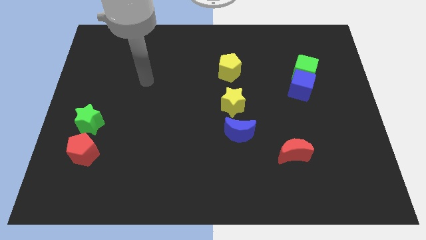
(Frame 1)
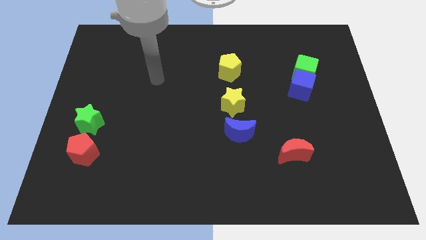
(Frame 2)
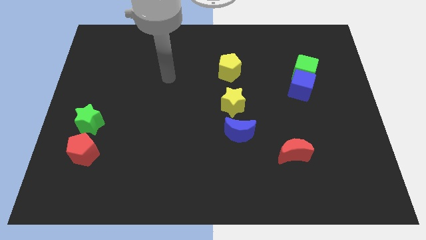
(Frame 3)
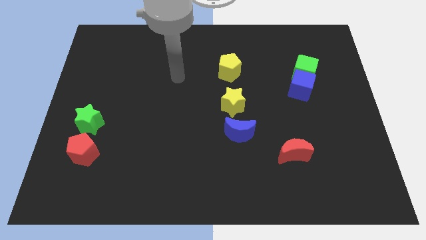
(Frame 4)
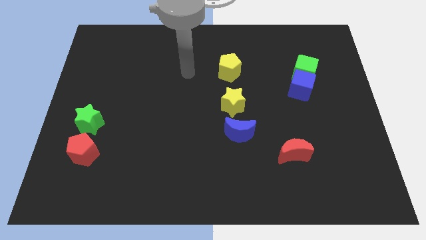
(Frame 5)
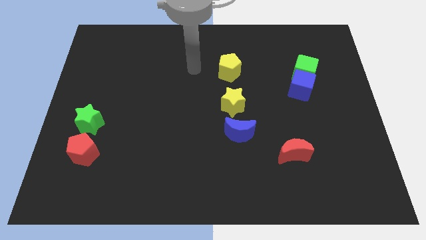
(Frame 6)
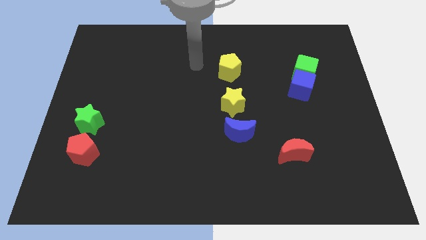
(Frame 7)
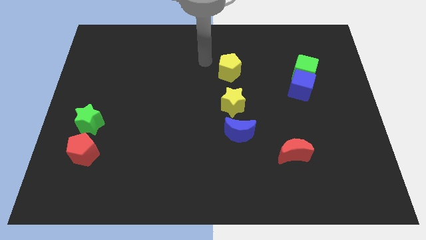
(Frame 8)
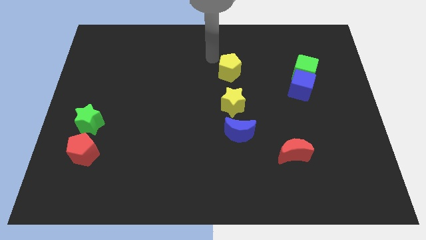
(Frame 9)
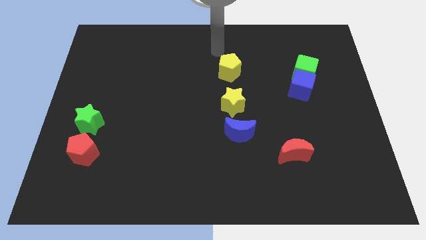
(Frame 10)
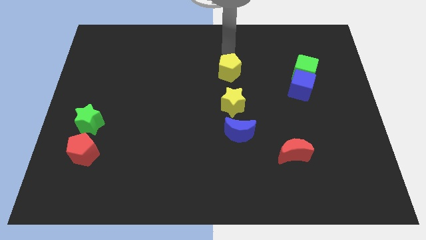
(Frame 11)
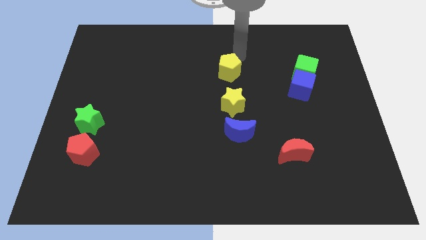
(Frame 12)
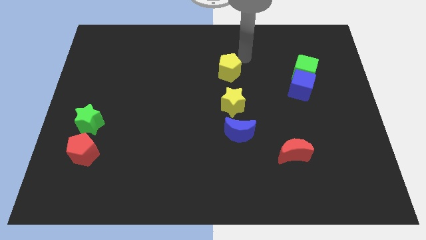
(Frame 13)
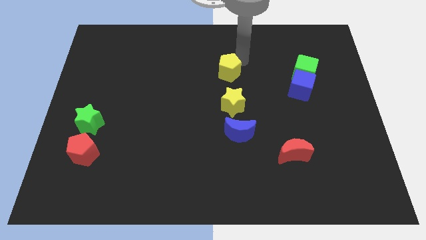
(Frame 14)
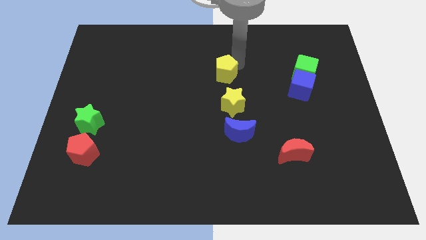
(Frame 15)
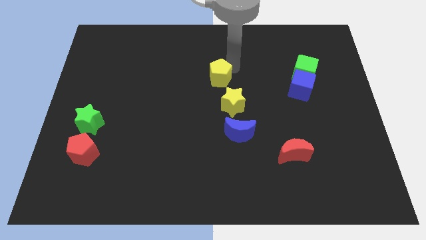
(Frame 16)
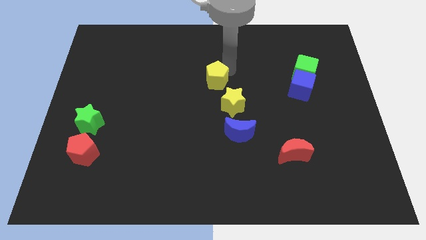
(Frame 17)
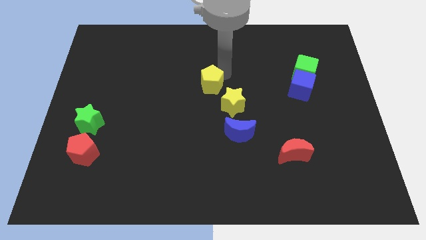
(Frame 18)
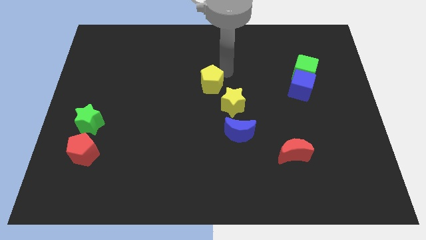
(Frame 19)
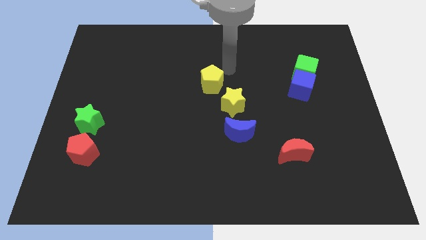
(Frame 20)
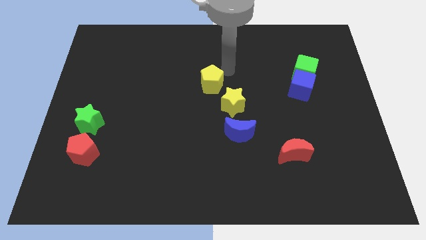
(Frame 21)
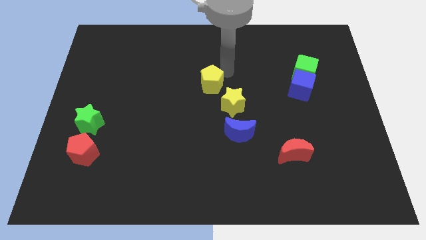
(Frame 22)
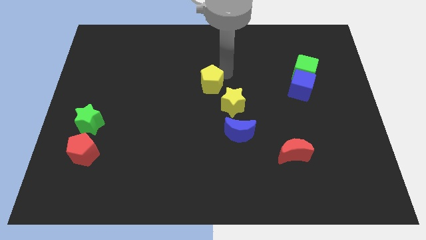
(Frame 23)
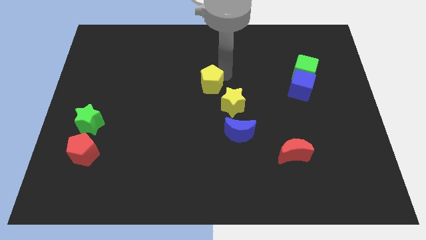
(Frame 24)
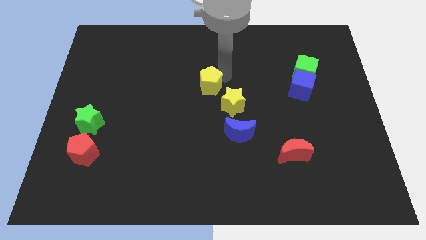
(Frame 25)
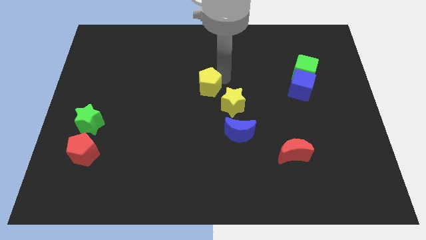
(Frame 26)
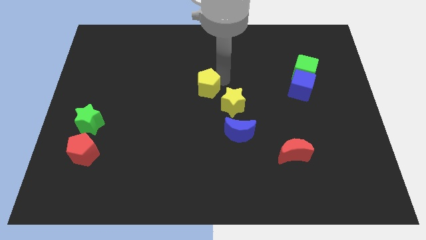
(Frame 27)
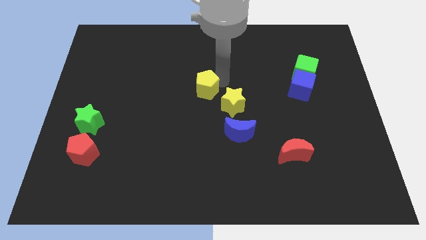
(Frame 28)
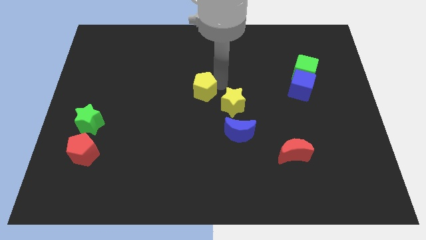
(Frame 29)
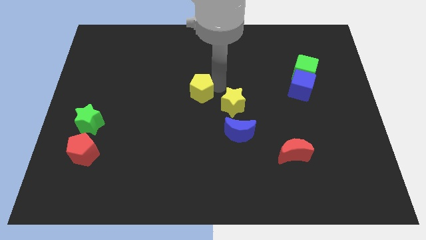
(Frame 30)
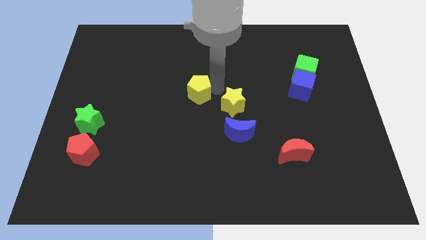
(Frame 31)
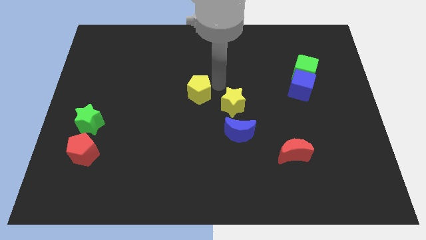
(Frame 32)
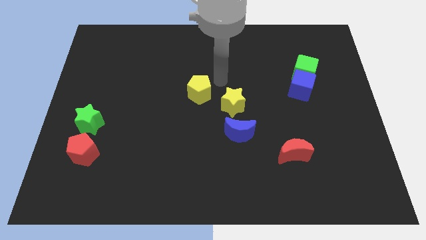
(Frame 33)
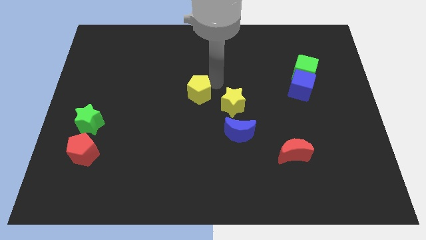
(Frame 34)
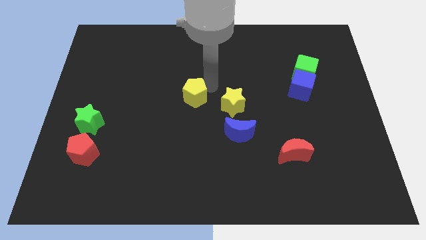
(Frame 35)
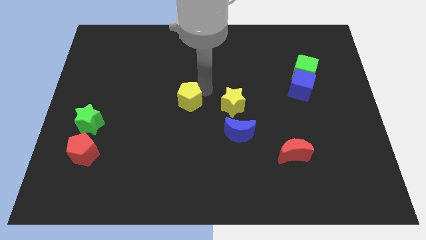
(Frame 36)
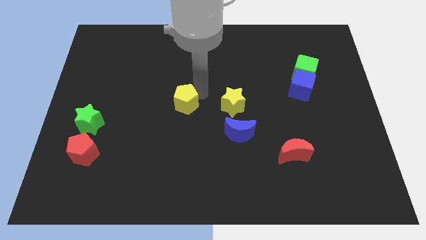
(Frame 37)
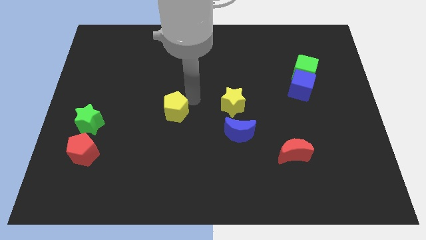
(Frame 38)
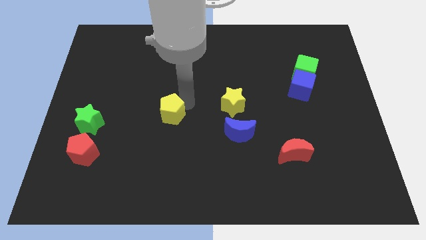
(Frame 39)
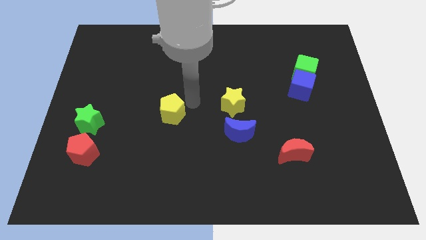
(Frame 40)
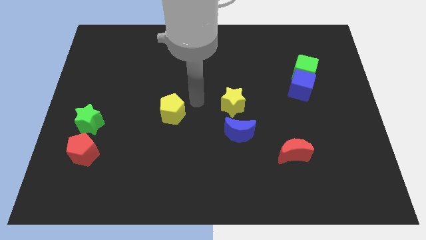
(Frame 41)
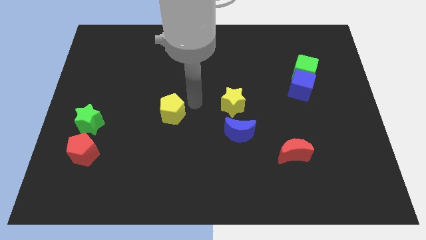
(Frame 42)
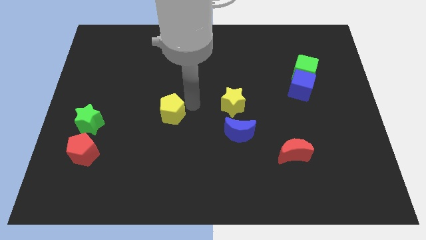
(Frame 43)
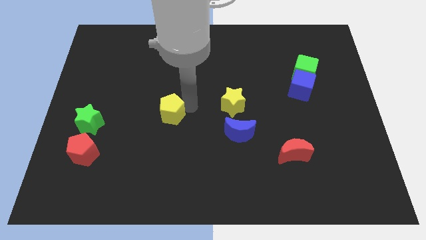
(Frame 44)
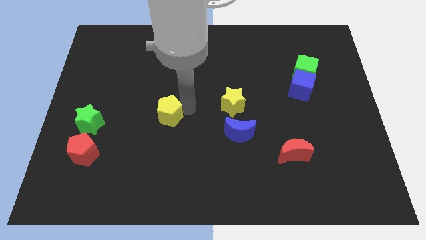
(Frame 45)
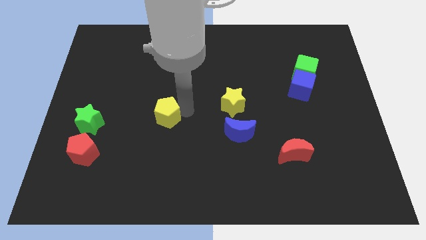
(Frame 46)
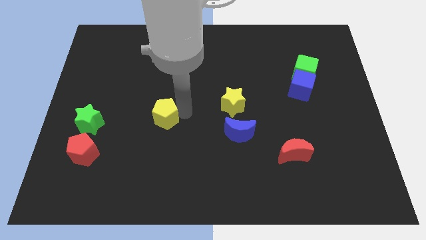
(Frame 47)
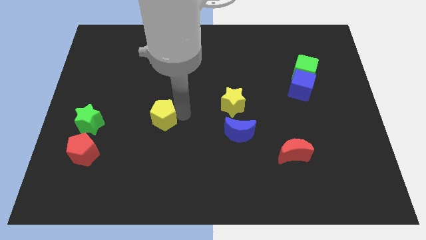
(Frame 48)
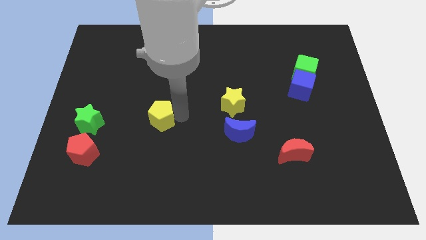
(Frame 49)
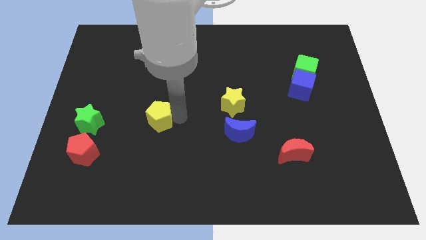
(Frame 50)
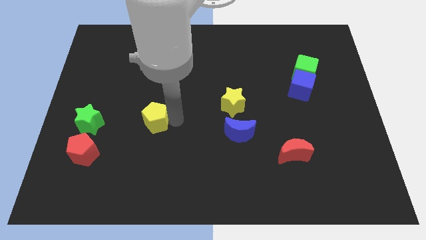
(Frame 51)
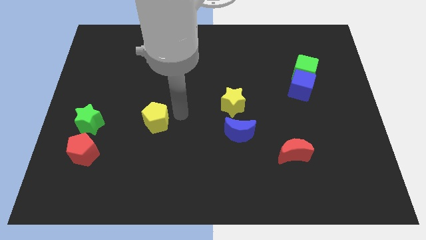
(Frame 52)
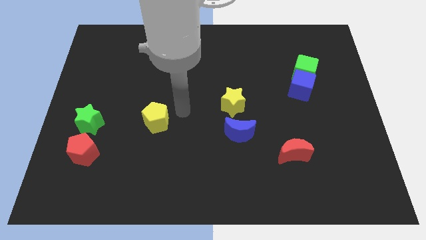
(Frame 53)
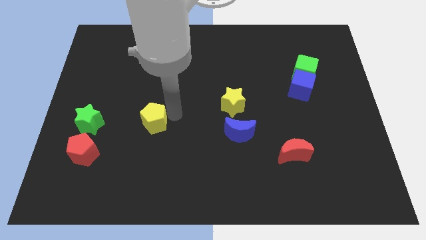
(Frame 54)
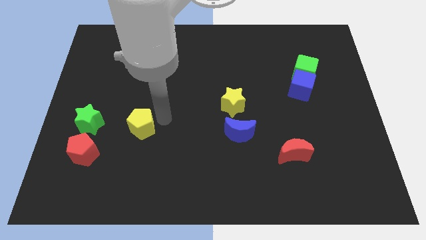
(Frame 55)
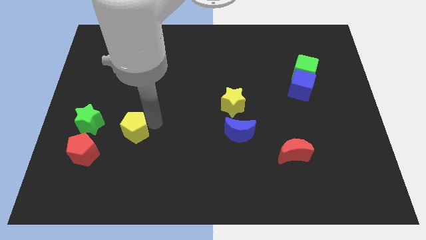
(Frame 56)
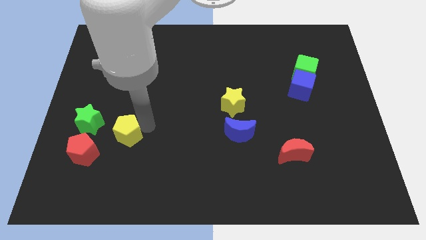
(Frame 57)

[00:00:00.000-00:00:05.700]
put the yellow pentagon to the bottom right of the green star

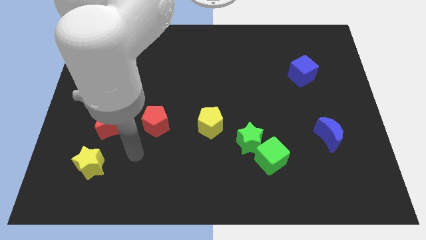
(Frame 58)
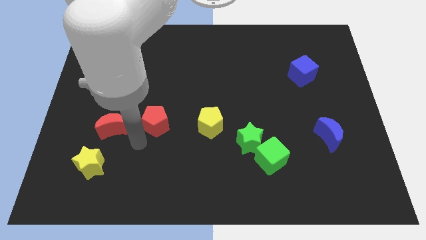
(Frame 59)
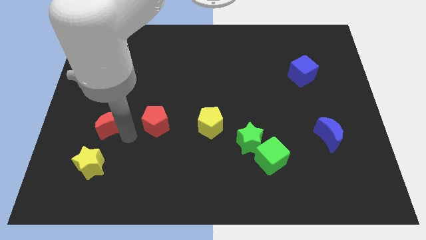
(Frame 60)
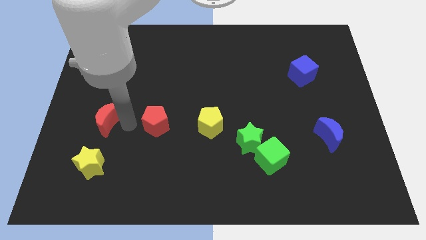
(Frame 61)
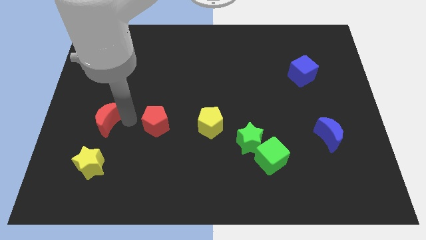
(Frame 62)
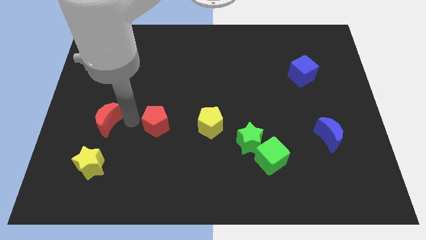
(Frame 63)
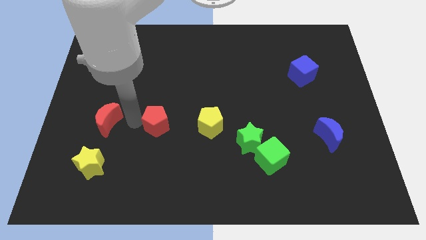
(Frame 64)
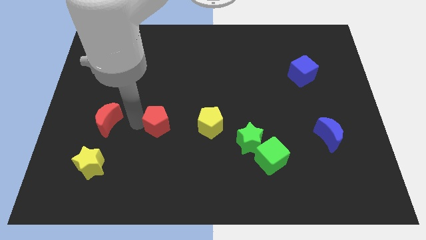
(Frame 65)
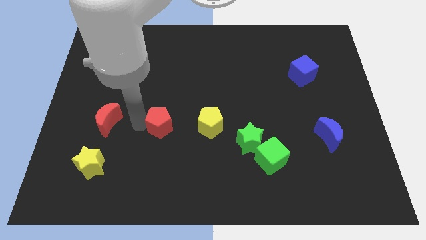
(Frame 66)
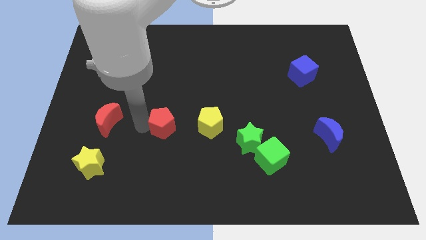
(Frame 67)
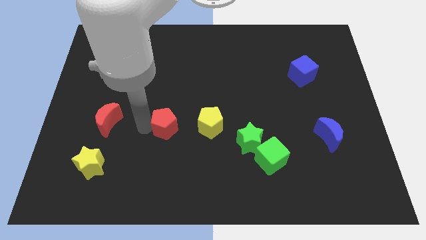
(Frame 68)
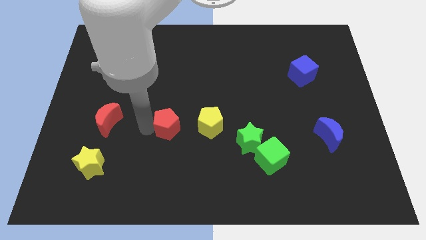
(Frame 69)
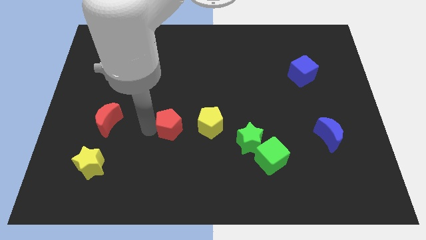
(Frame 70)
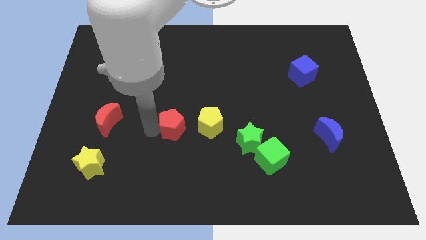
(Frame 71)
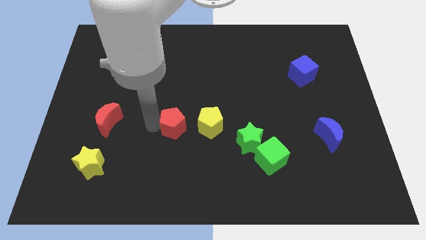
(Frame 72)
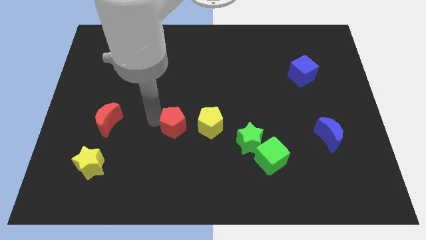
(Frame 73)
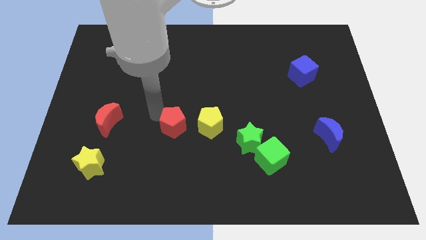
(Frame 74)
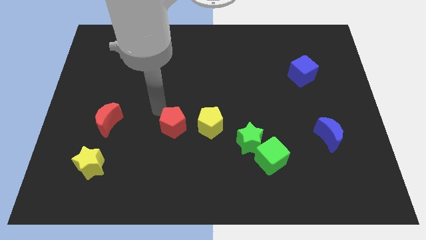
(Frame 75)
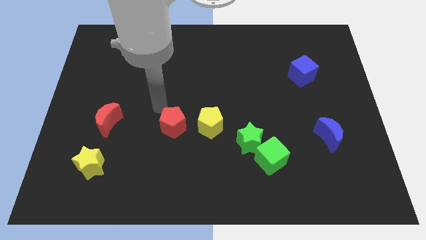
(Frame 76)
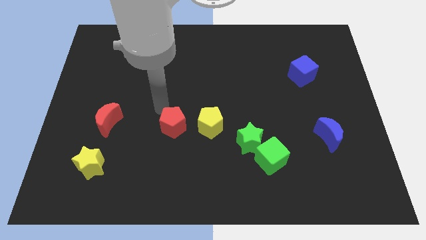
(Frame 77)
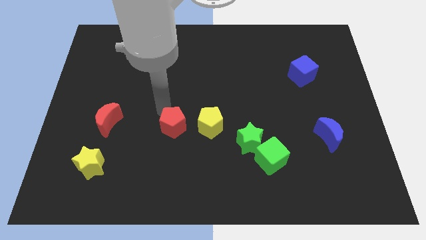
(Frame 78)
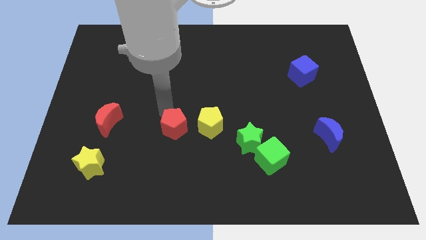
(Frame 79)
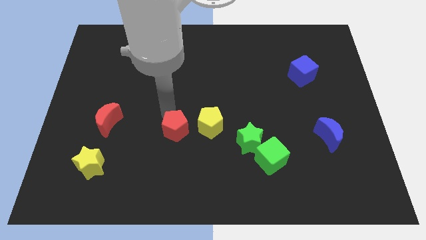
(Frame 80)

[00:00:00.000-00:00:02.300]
put the red pentagon to the bottom left side of the yellow pentagon
